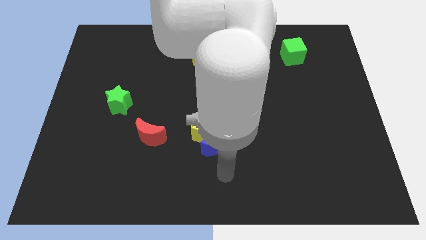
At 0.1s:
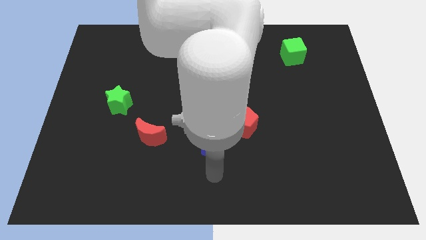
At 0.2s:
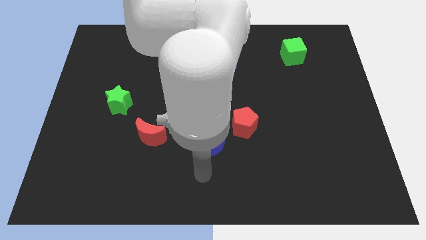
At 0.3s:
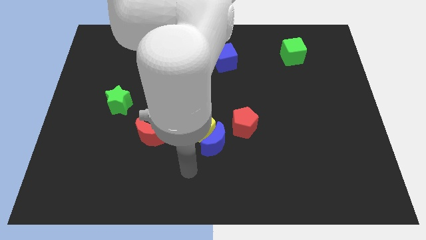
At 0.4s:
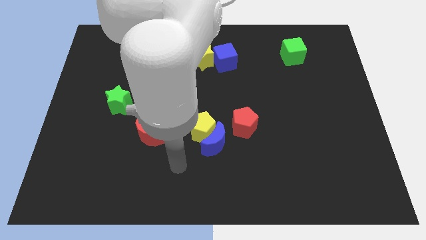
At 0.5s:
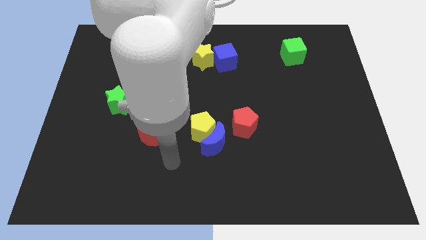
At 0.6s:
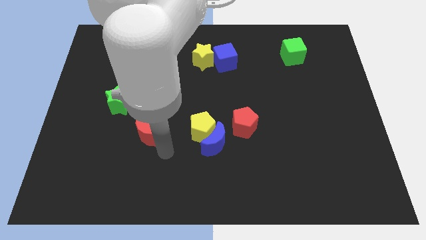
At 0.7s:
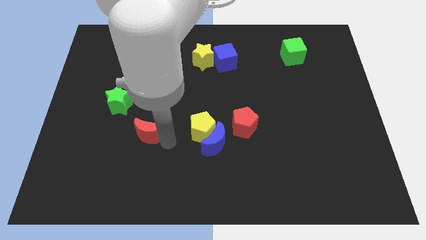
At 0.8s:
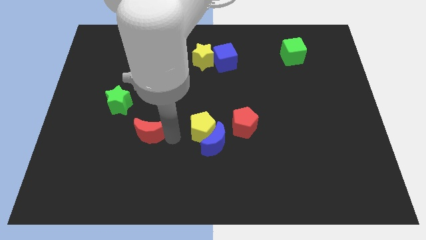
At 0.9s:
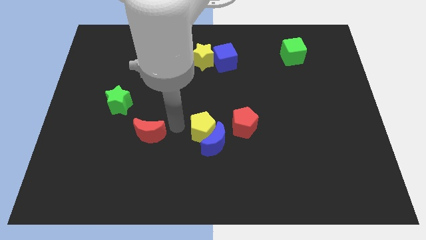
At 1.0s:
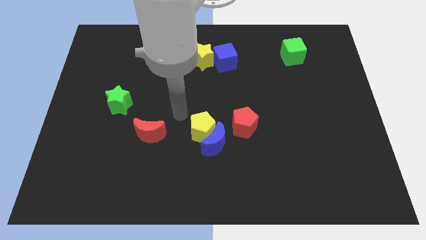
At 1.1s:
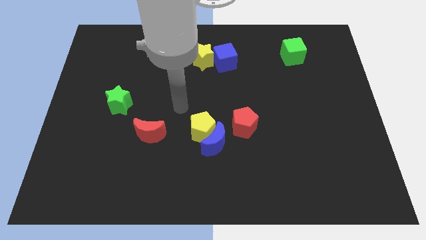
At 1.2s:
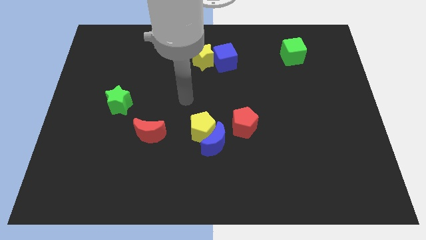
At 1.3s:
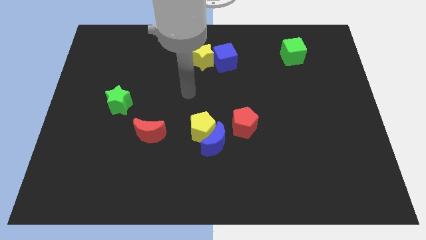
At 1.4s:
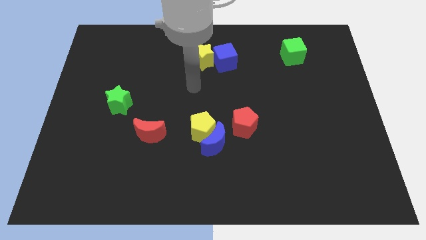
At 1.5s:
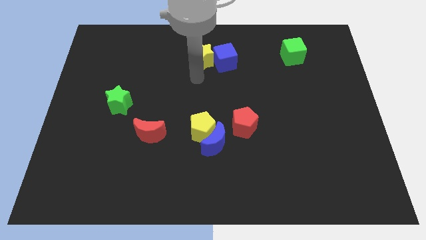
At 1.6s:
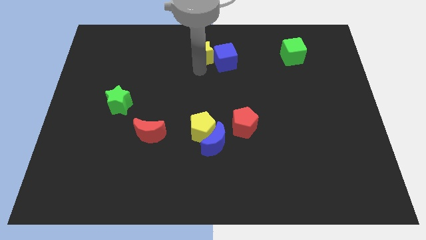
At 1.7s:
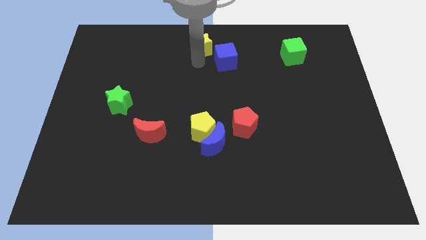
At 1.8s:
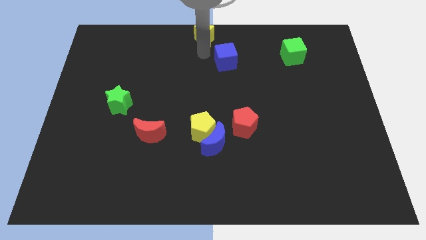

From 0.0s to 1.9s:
pull the blue cube apart from the yellow star

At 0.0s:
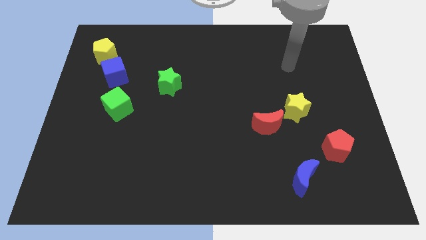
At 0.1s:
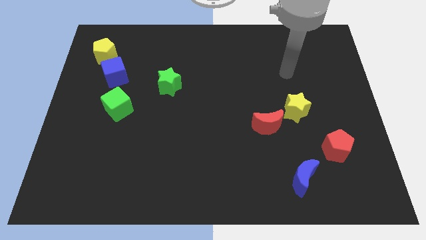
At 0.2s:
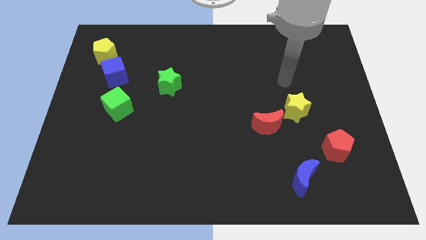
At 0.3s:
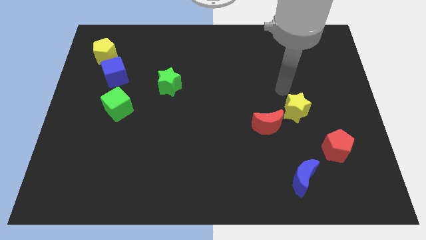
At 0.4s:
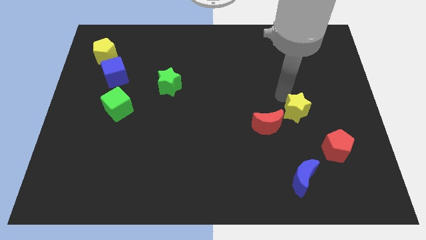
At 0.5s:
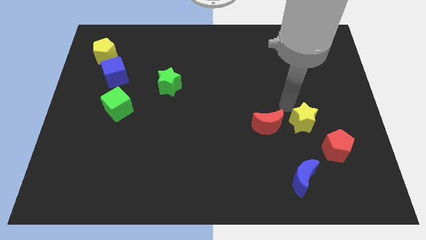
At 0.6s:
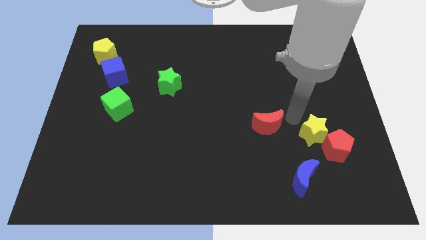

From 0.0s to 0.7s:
pull the red moon apart from the yellow star

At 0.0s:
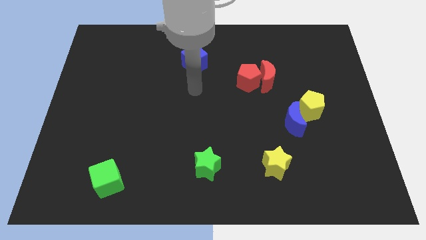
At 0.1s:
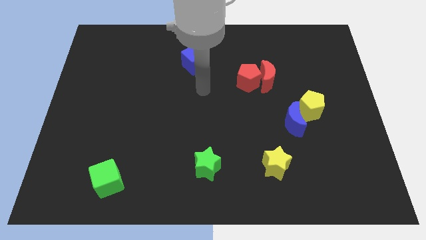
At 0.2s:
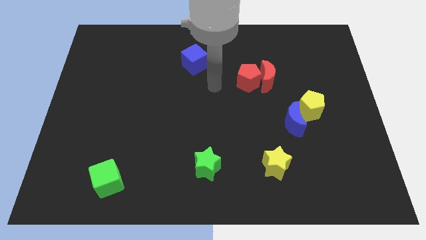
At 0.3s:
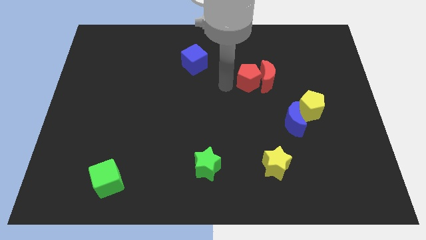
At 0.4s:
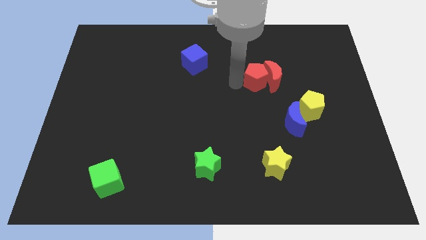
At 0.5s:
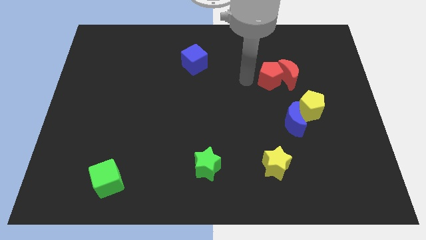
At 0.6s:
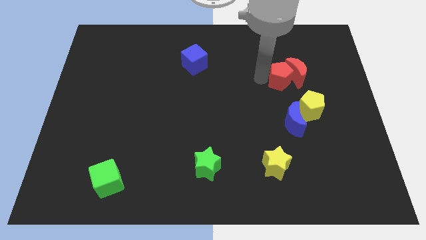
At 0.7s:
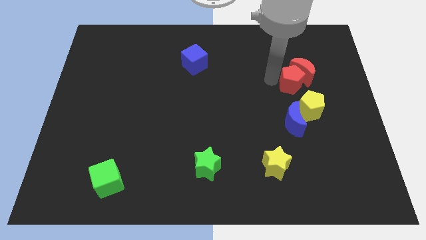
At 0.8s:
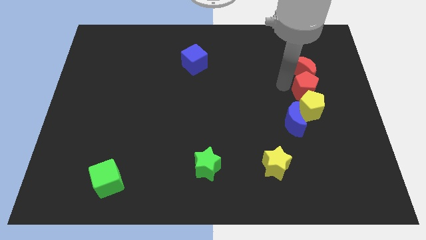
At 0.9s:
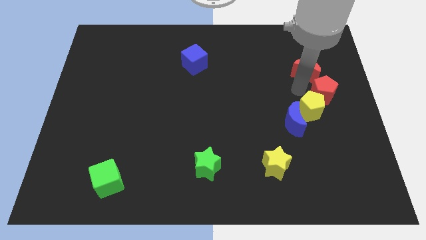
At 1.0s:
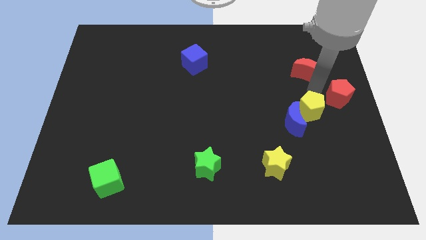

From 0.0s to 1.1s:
pull the red moon apart from the red pentagon

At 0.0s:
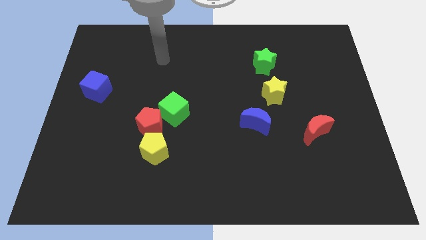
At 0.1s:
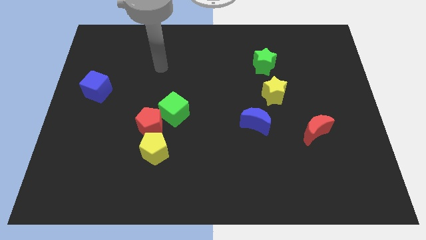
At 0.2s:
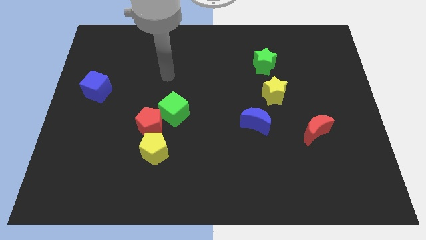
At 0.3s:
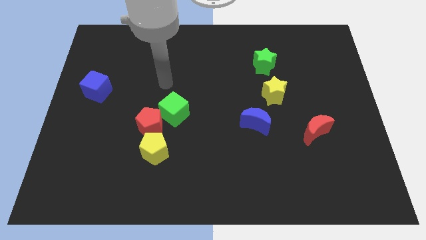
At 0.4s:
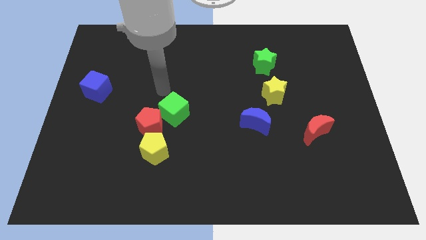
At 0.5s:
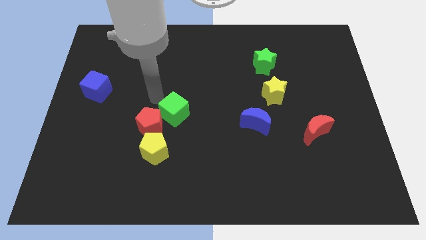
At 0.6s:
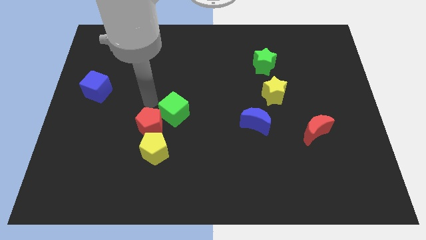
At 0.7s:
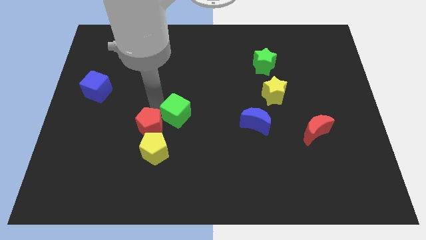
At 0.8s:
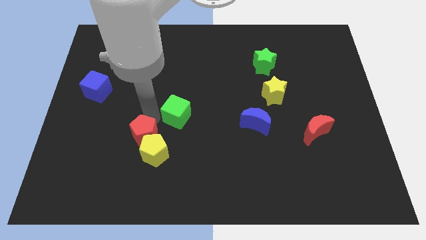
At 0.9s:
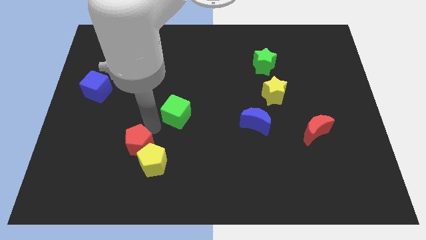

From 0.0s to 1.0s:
move the green cube away from the red pentagon

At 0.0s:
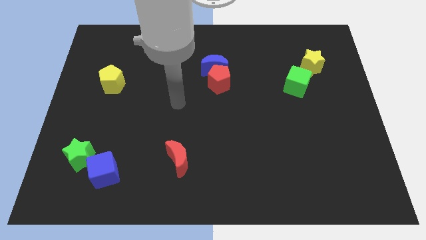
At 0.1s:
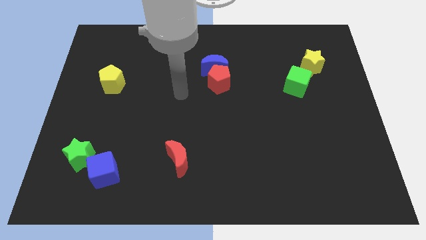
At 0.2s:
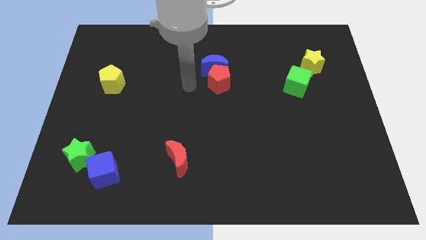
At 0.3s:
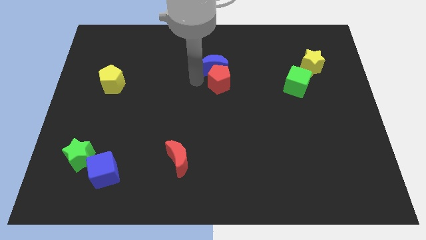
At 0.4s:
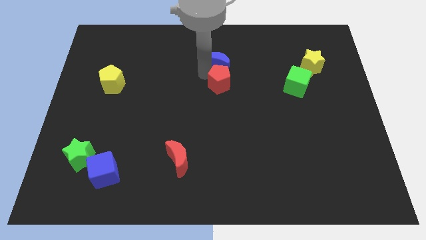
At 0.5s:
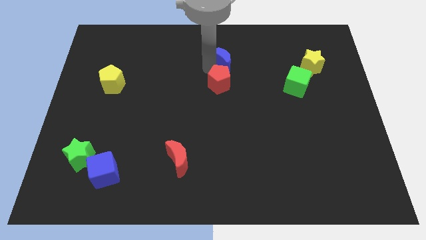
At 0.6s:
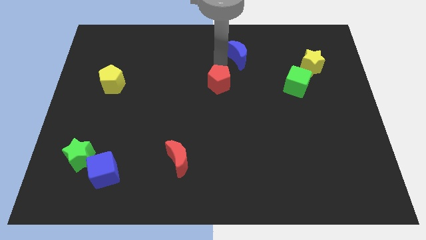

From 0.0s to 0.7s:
pull the red pentagon apart from the blue moon

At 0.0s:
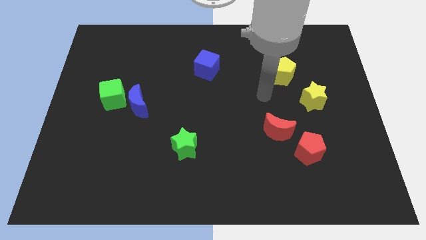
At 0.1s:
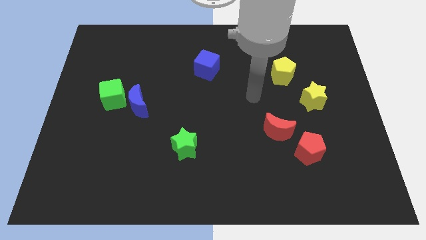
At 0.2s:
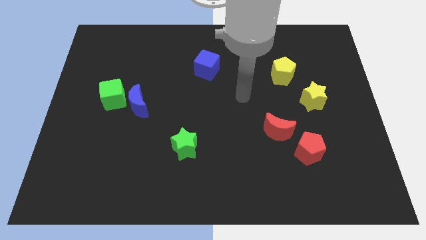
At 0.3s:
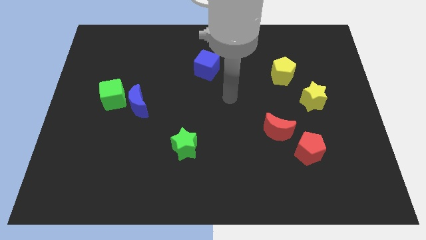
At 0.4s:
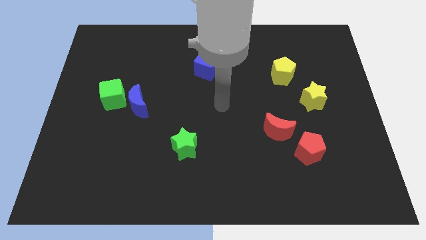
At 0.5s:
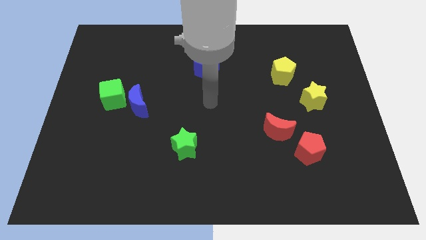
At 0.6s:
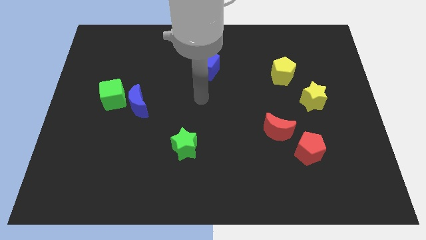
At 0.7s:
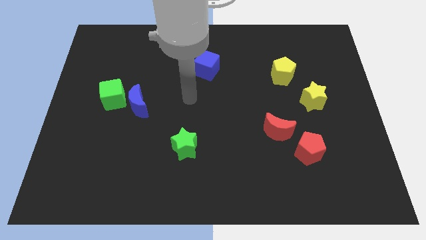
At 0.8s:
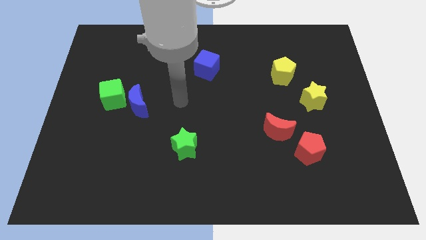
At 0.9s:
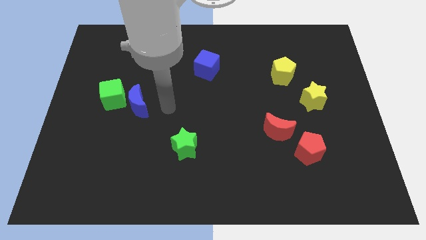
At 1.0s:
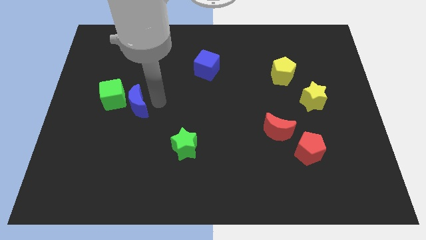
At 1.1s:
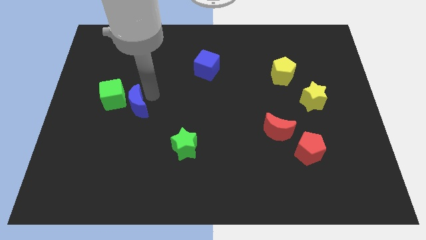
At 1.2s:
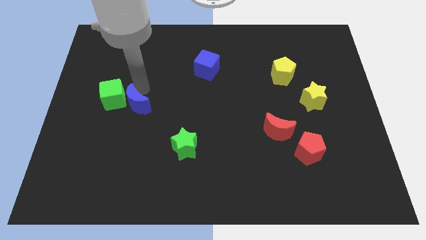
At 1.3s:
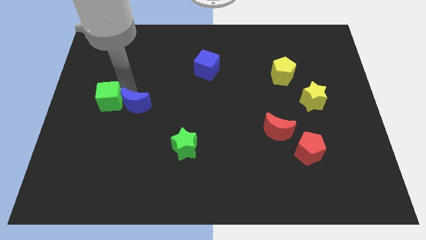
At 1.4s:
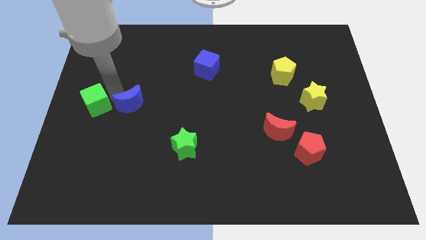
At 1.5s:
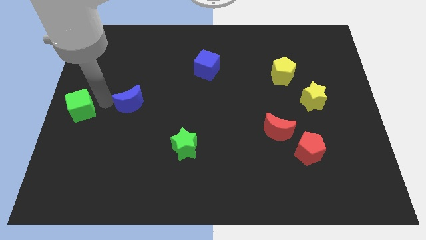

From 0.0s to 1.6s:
move the blue moon away from the green cube

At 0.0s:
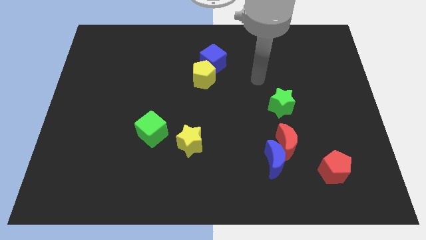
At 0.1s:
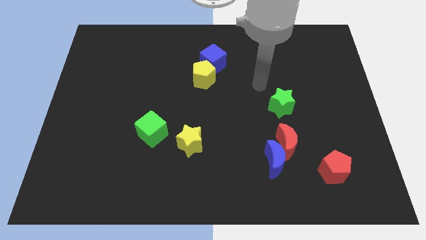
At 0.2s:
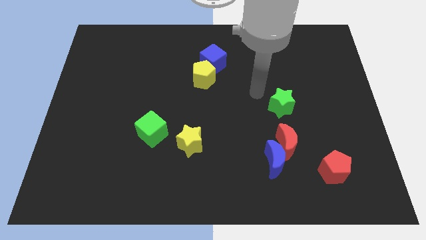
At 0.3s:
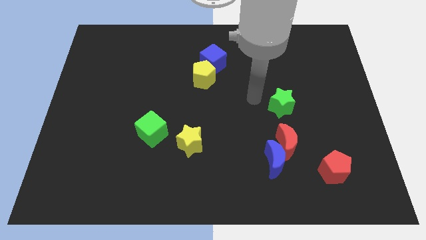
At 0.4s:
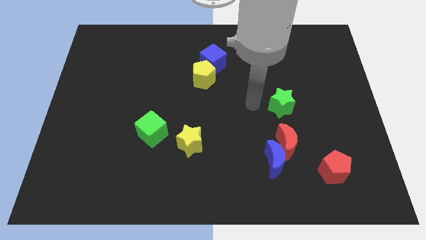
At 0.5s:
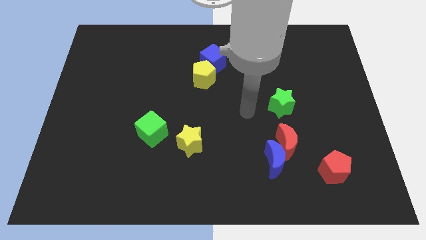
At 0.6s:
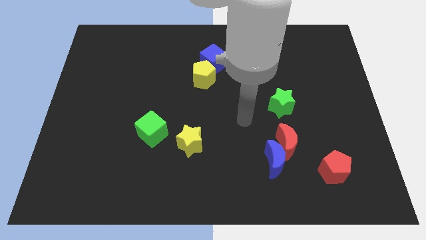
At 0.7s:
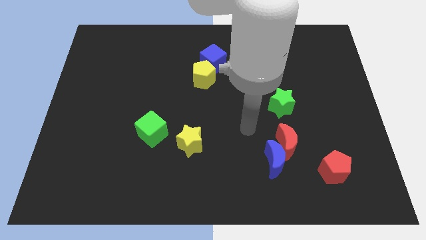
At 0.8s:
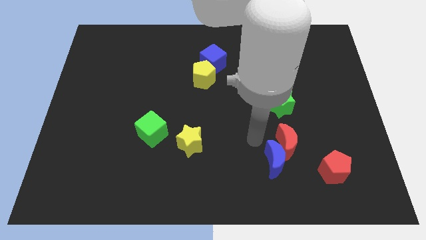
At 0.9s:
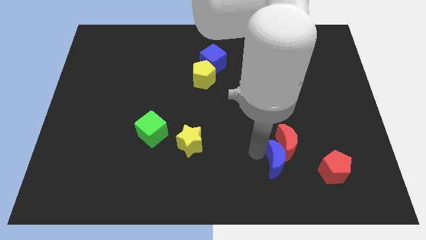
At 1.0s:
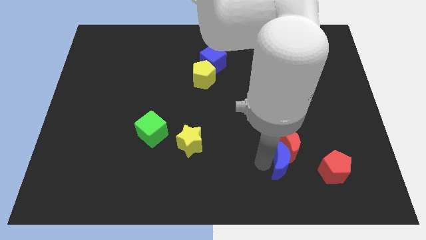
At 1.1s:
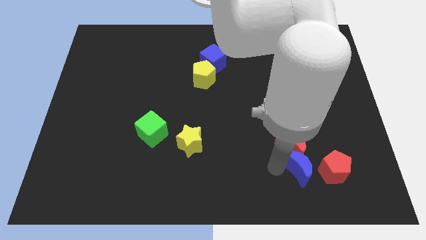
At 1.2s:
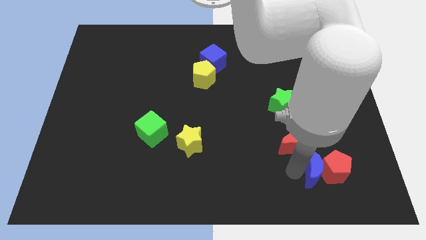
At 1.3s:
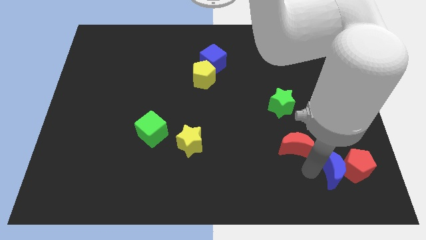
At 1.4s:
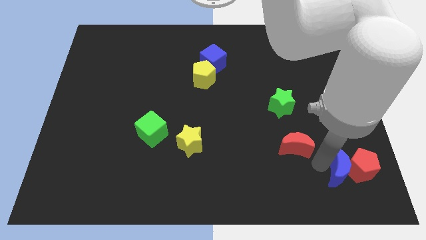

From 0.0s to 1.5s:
pull the red moon apart from the blue moon

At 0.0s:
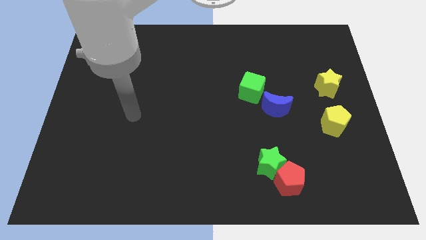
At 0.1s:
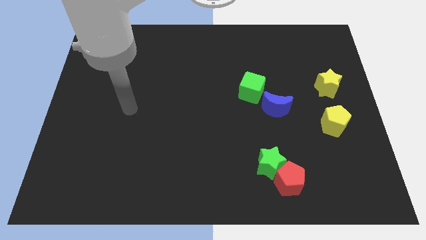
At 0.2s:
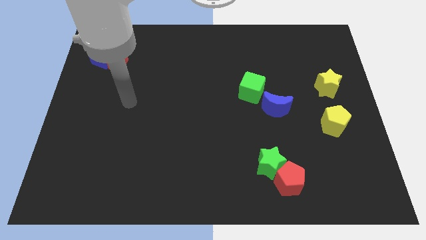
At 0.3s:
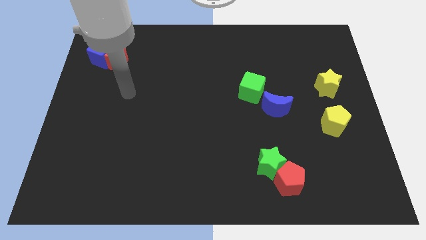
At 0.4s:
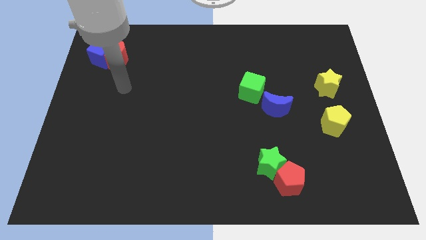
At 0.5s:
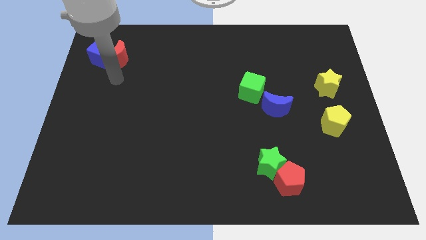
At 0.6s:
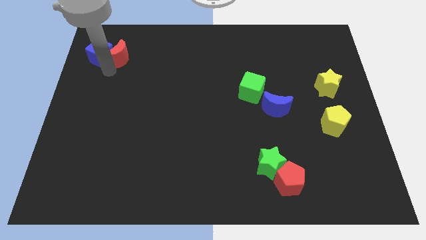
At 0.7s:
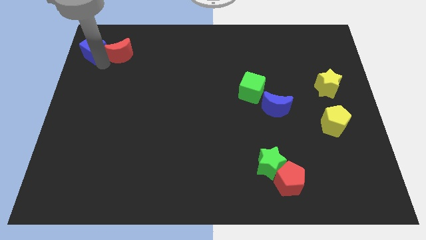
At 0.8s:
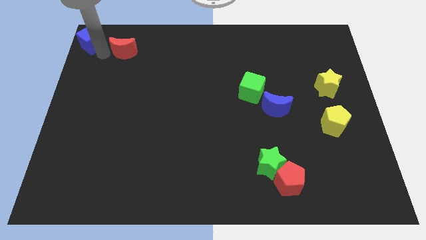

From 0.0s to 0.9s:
pull the red moon apart from the blue cube
